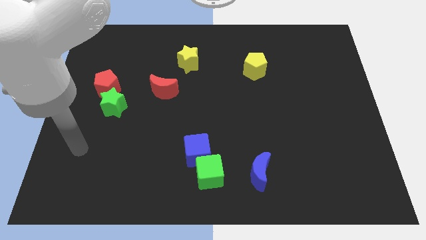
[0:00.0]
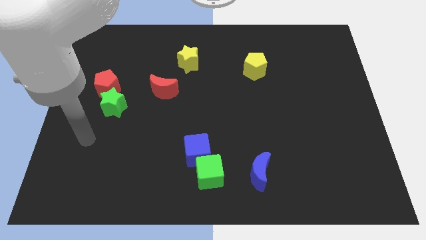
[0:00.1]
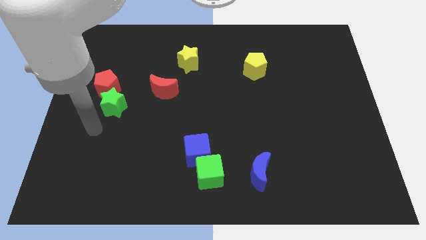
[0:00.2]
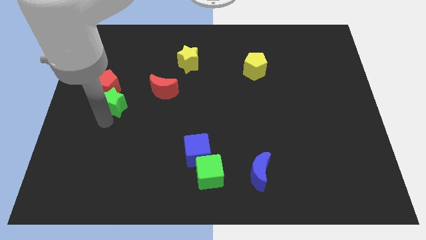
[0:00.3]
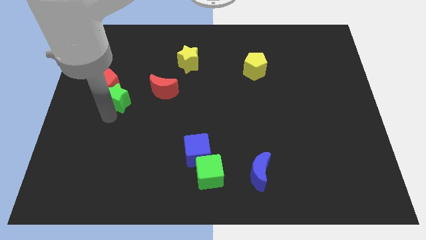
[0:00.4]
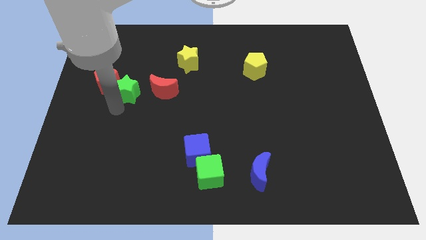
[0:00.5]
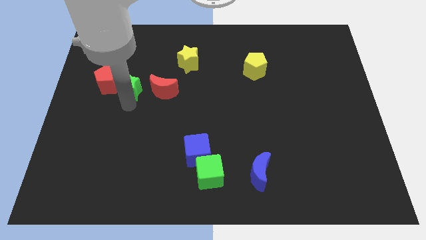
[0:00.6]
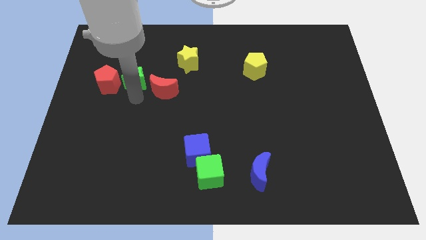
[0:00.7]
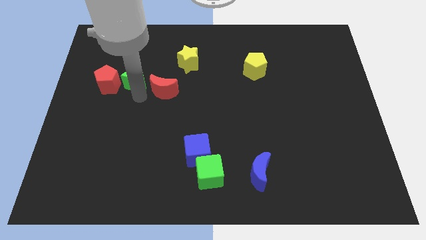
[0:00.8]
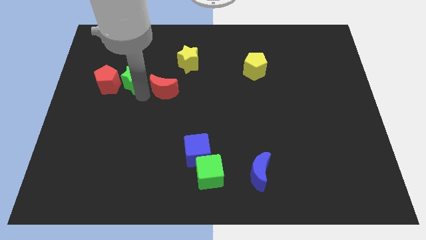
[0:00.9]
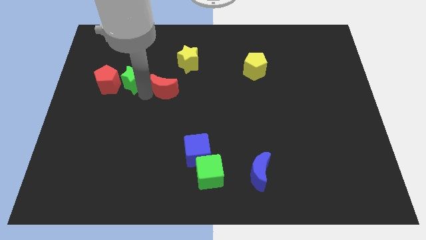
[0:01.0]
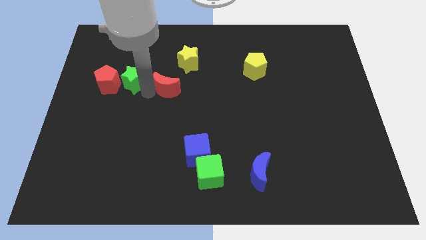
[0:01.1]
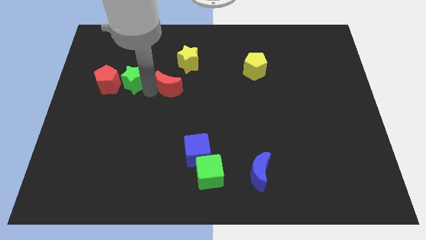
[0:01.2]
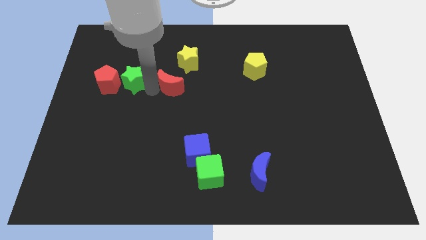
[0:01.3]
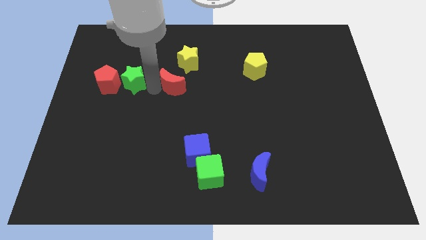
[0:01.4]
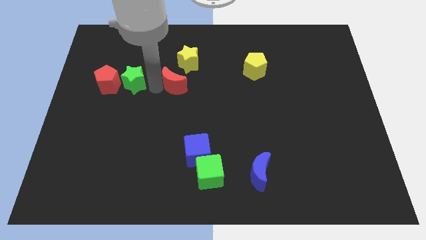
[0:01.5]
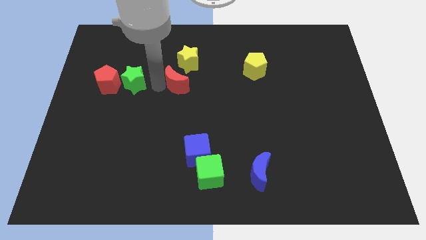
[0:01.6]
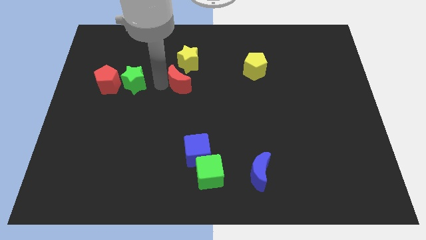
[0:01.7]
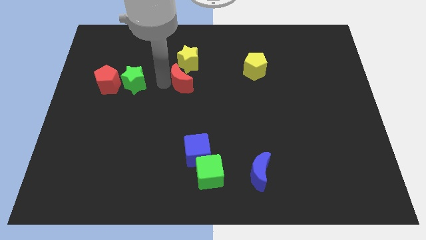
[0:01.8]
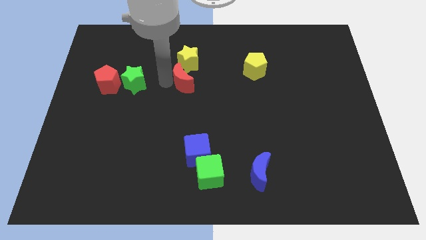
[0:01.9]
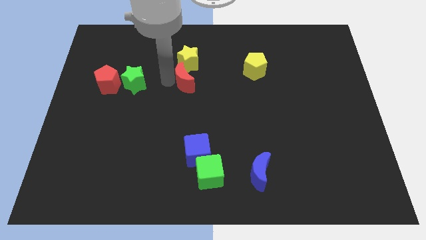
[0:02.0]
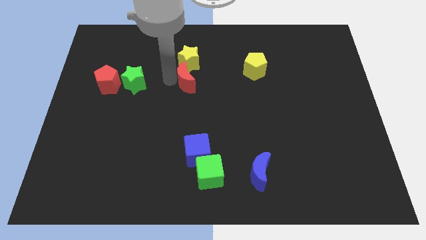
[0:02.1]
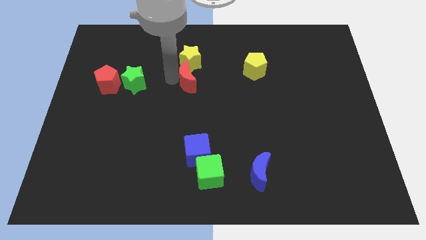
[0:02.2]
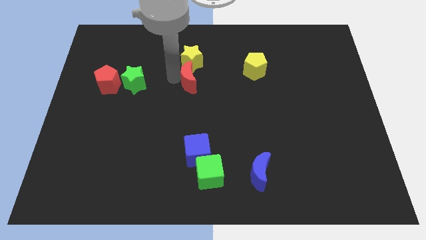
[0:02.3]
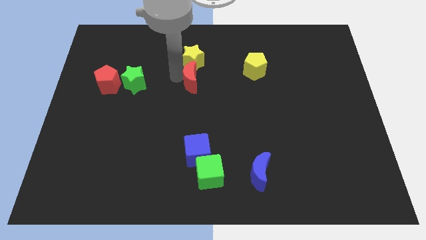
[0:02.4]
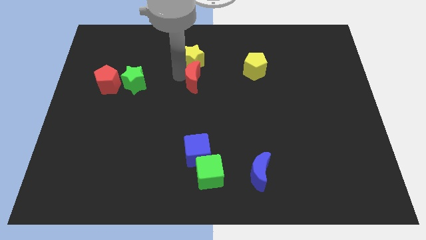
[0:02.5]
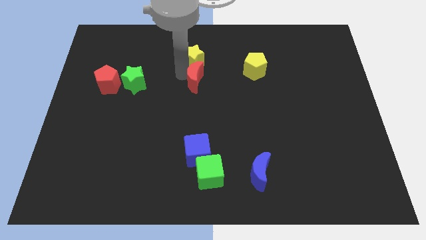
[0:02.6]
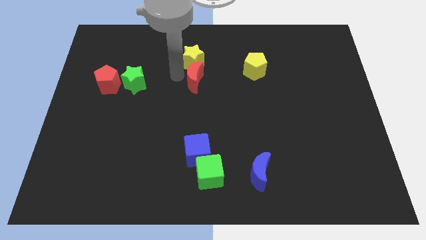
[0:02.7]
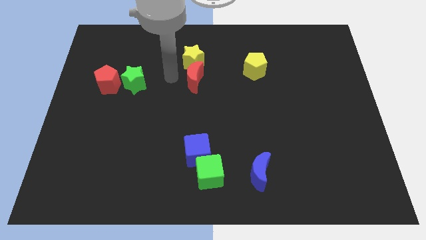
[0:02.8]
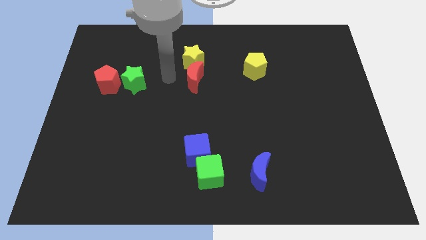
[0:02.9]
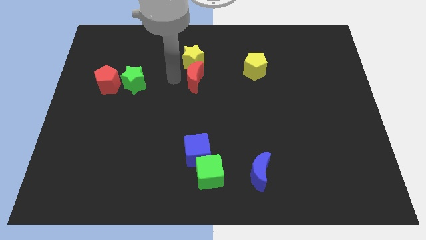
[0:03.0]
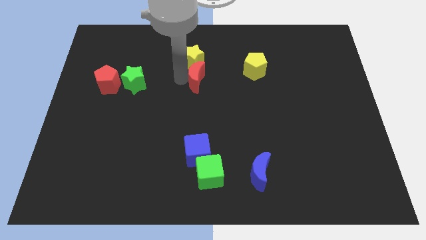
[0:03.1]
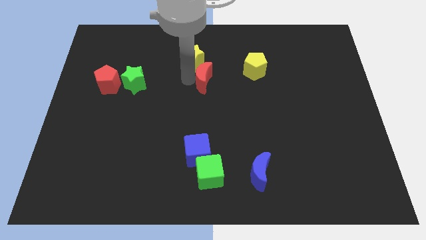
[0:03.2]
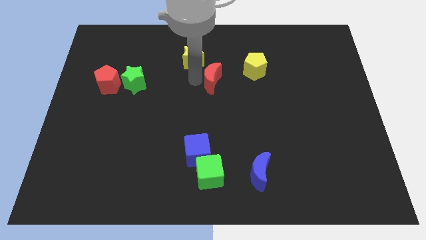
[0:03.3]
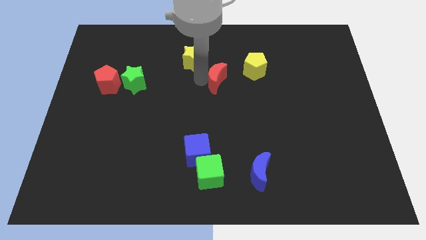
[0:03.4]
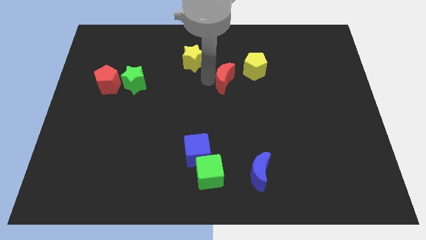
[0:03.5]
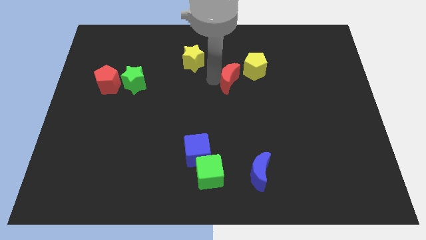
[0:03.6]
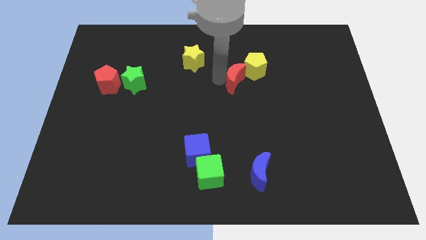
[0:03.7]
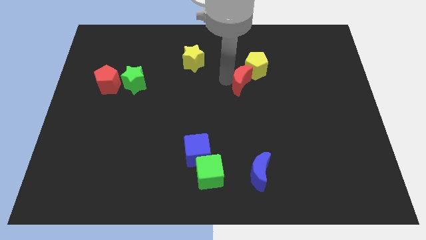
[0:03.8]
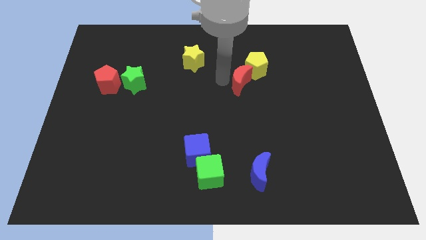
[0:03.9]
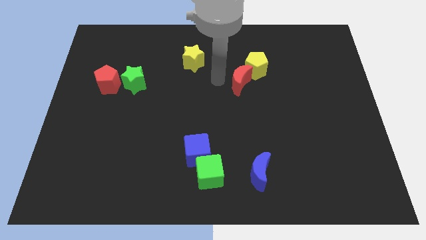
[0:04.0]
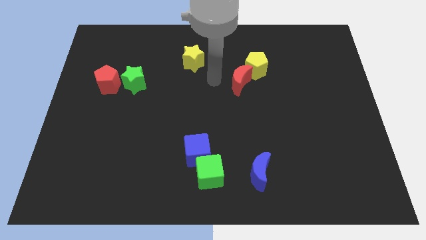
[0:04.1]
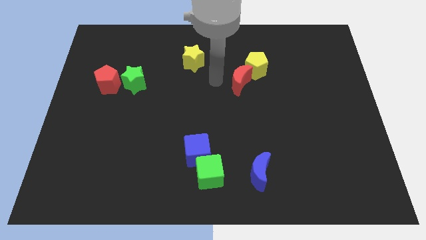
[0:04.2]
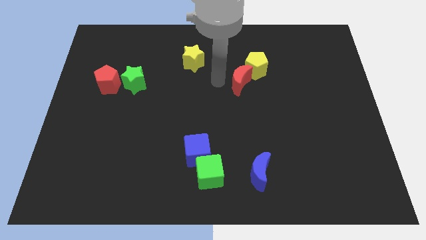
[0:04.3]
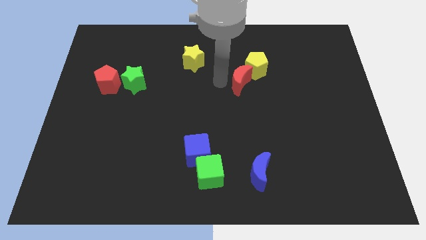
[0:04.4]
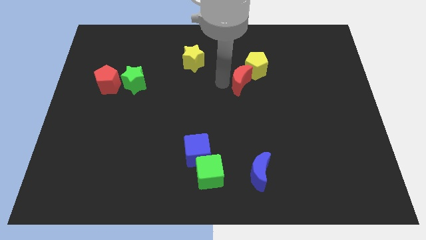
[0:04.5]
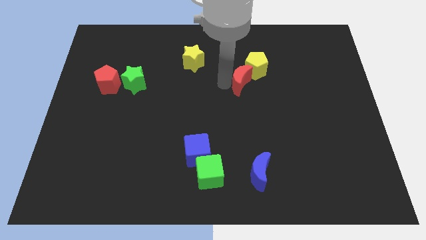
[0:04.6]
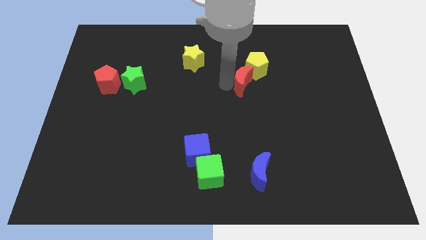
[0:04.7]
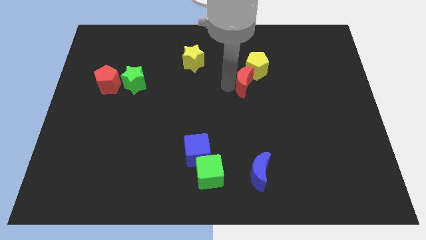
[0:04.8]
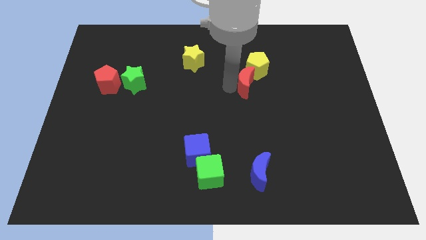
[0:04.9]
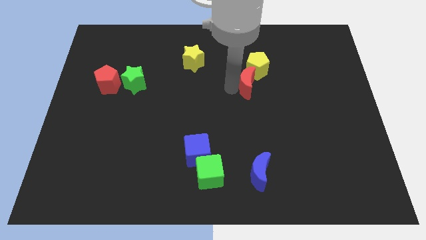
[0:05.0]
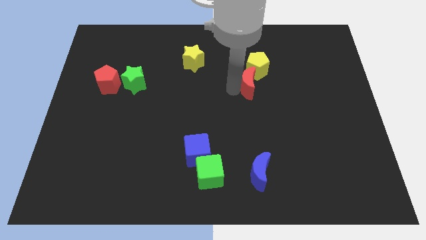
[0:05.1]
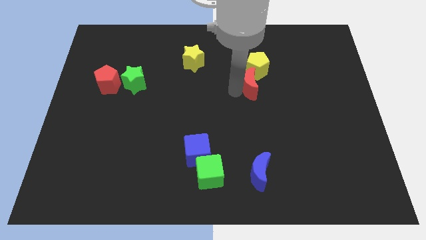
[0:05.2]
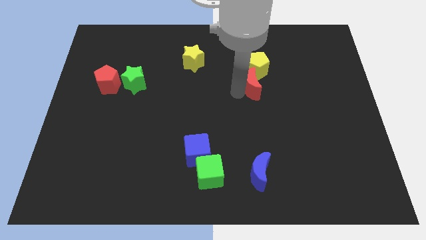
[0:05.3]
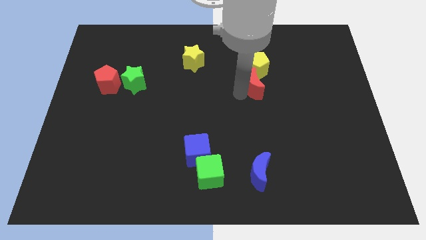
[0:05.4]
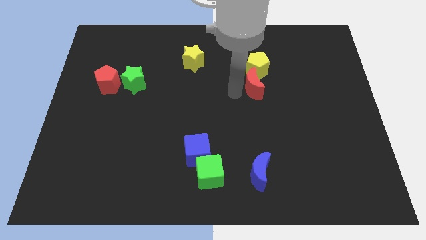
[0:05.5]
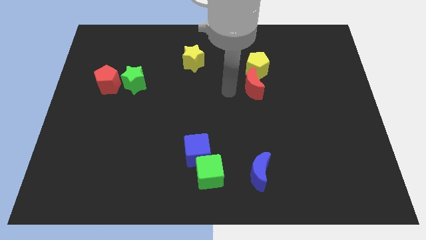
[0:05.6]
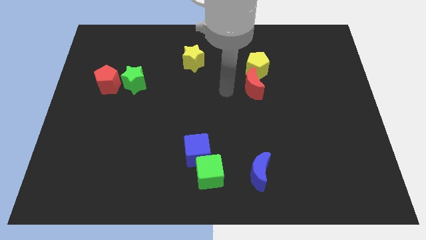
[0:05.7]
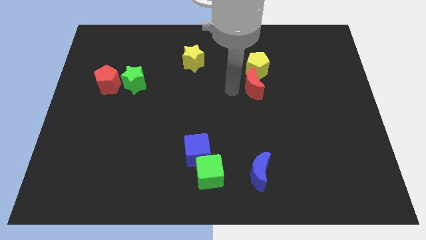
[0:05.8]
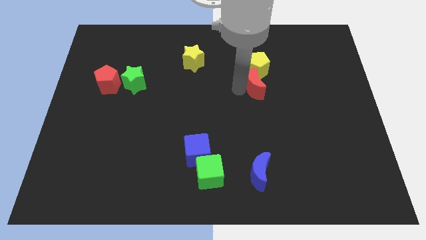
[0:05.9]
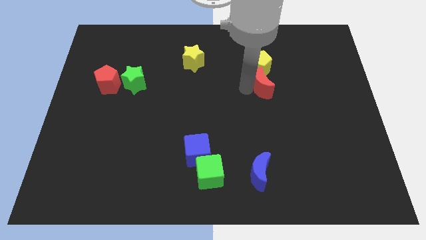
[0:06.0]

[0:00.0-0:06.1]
slide the red moon to the bottom right of the yellow pentagon

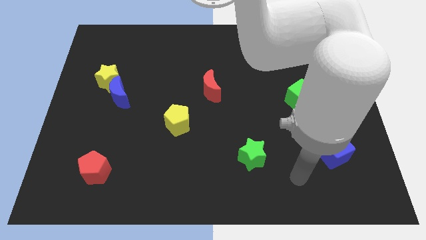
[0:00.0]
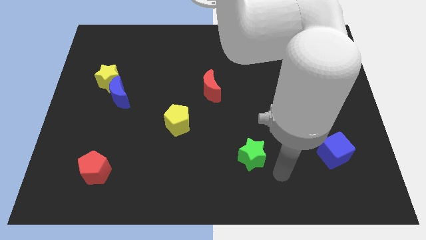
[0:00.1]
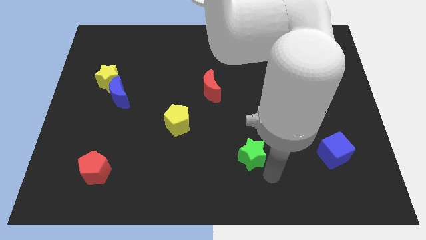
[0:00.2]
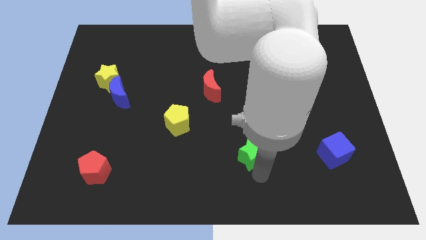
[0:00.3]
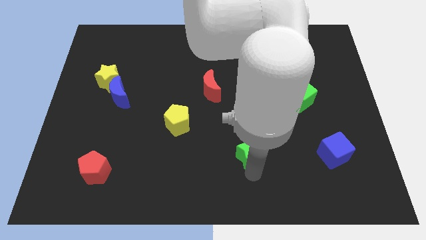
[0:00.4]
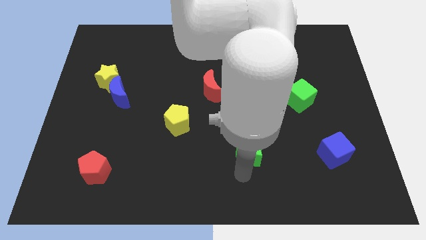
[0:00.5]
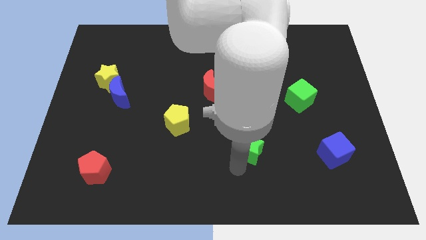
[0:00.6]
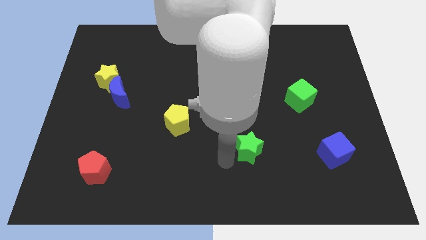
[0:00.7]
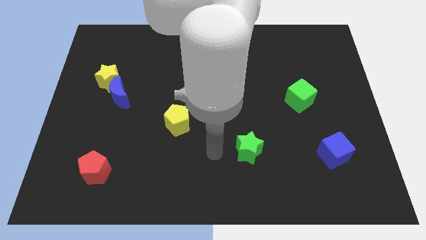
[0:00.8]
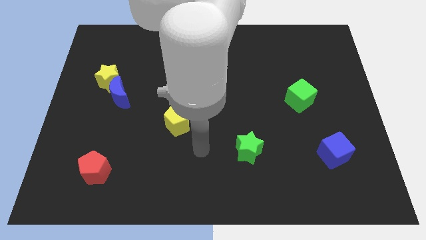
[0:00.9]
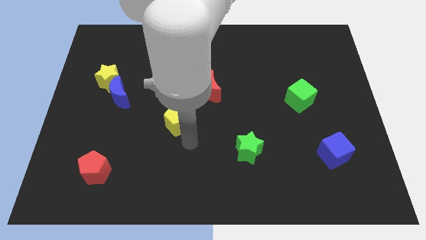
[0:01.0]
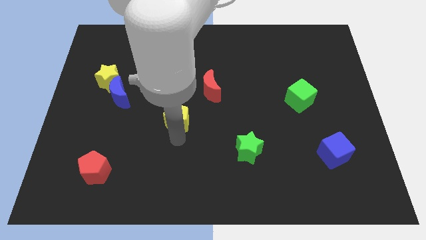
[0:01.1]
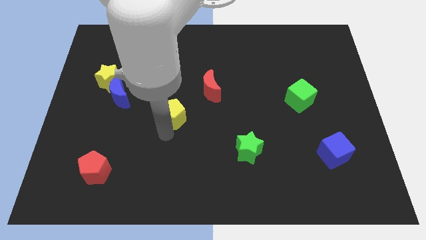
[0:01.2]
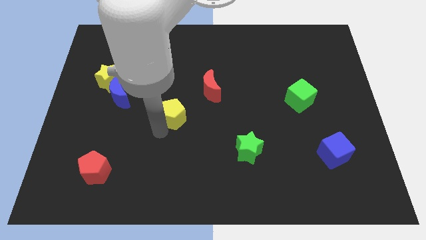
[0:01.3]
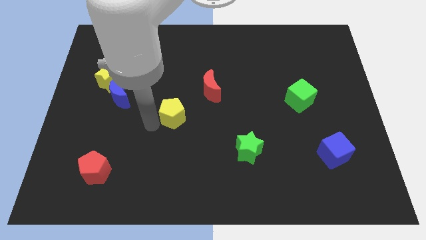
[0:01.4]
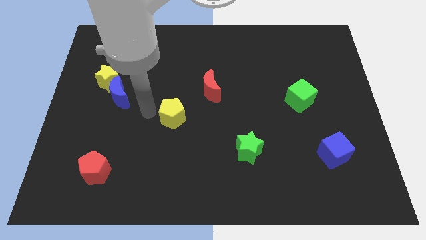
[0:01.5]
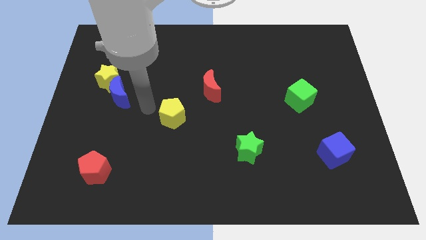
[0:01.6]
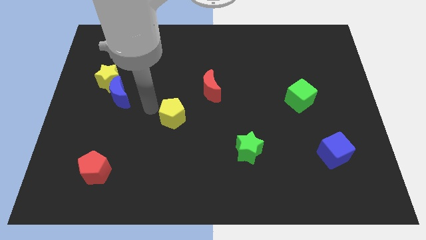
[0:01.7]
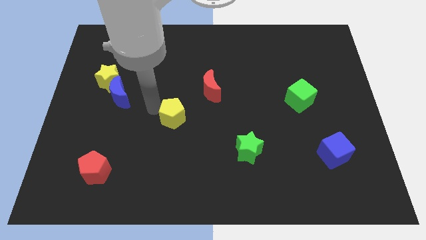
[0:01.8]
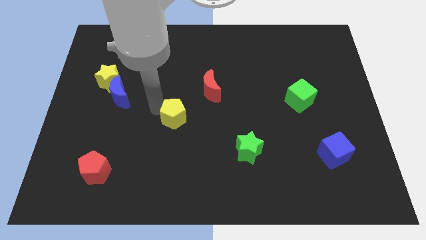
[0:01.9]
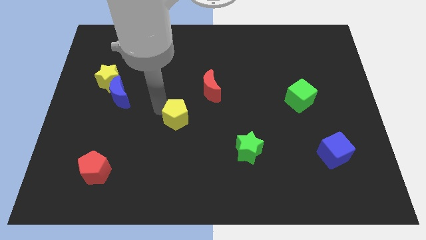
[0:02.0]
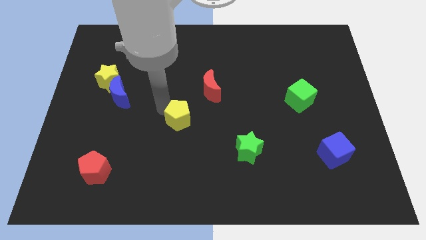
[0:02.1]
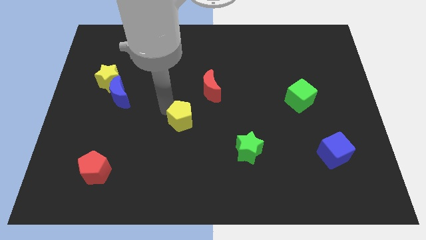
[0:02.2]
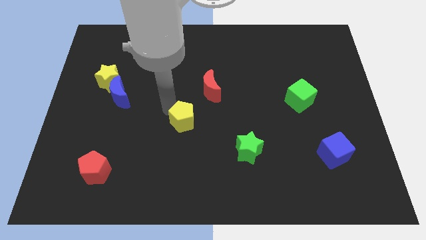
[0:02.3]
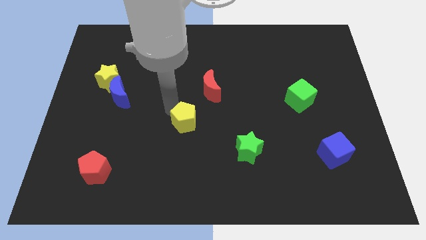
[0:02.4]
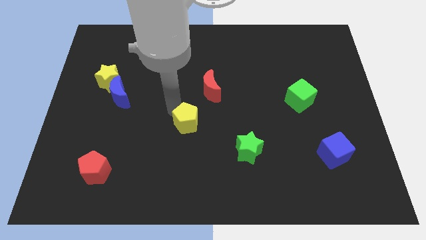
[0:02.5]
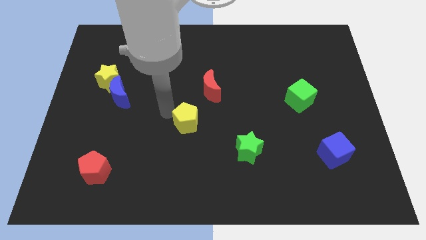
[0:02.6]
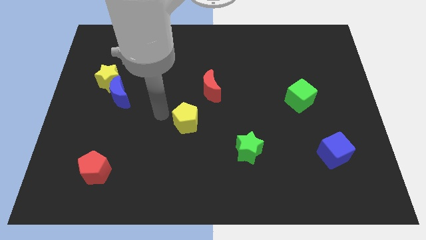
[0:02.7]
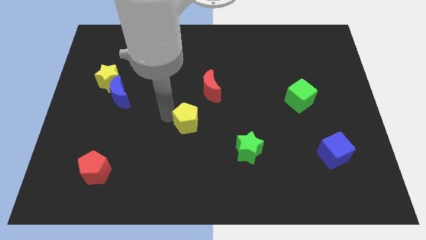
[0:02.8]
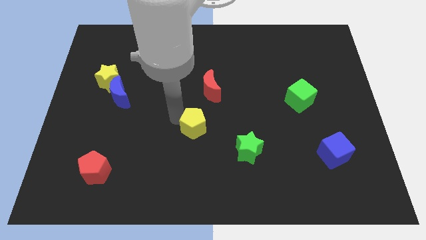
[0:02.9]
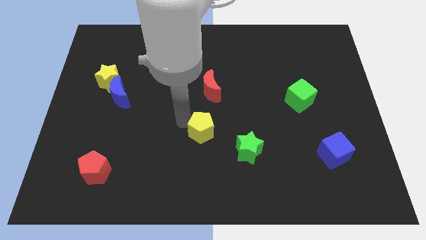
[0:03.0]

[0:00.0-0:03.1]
push the yellow pentagon to the top left of the green star
